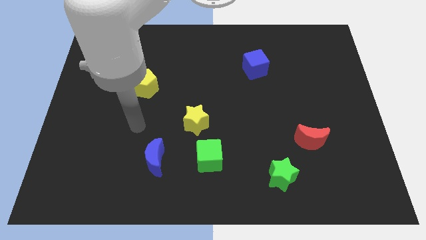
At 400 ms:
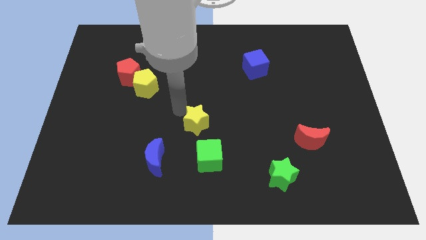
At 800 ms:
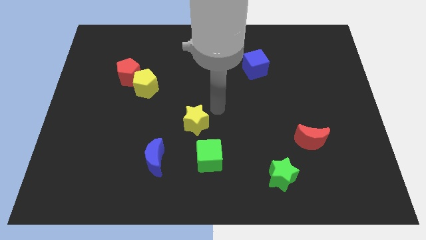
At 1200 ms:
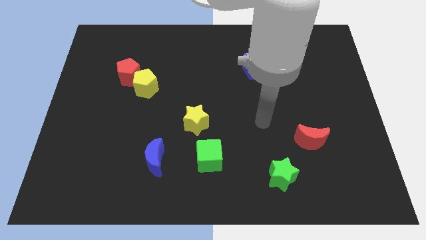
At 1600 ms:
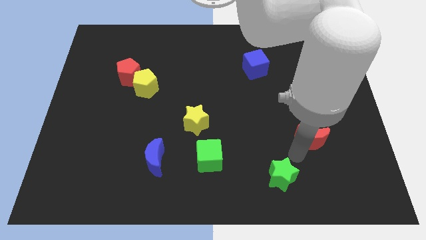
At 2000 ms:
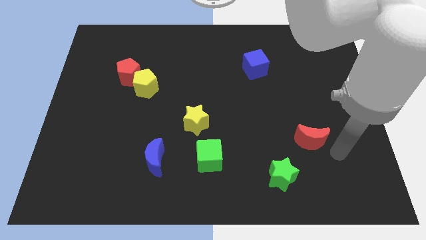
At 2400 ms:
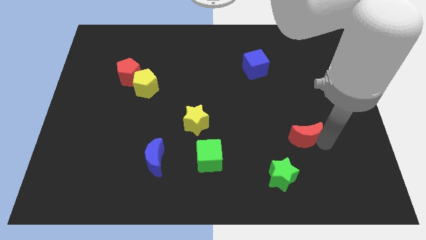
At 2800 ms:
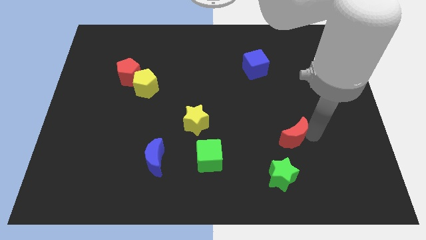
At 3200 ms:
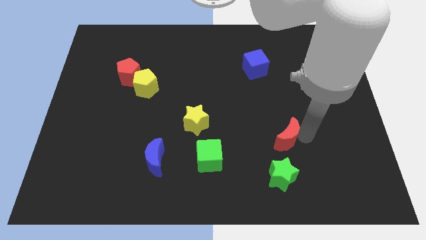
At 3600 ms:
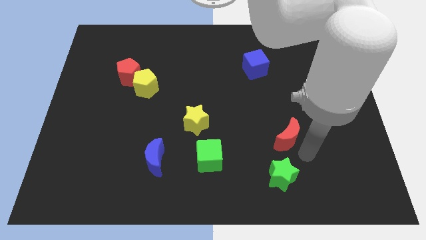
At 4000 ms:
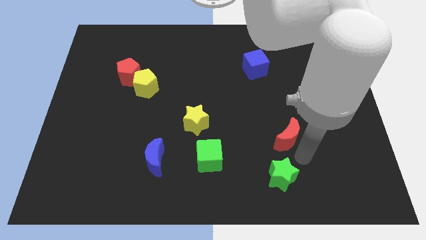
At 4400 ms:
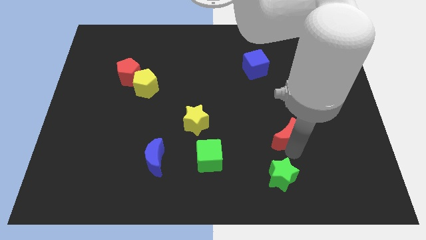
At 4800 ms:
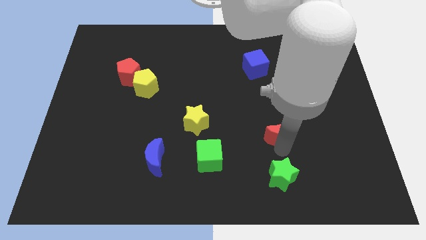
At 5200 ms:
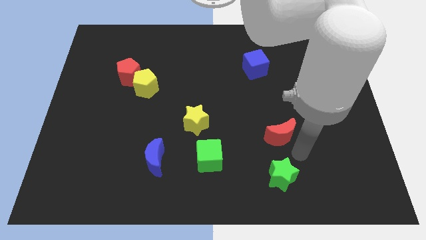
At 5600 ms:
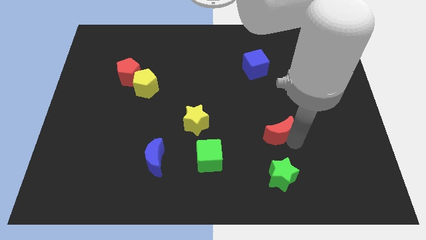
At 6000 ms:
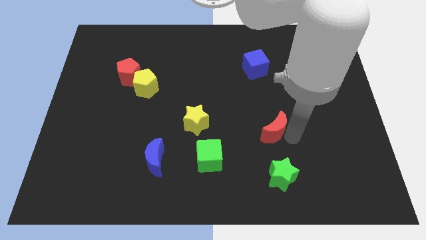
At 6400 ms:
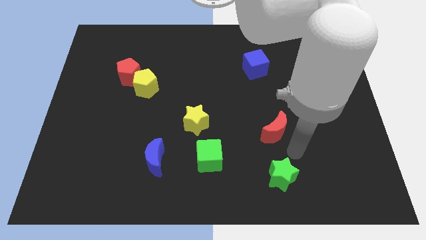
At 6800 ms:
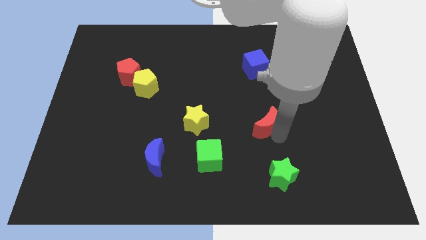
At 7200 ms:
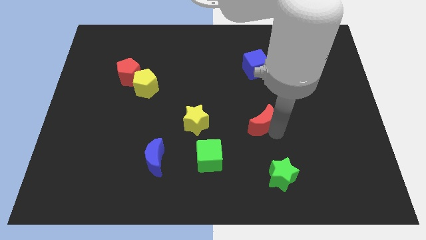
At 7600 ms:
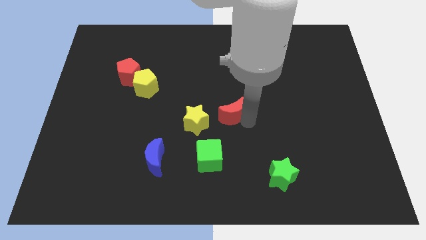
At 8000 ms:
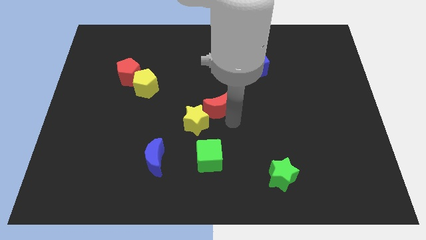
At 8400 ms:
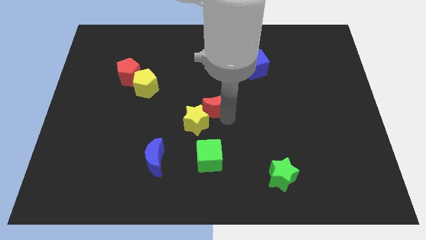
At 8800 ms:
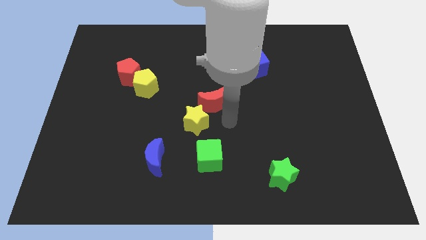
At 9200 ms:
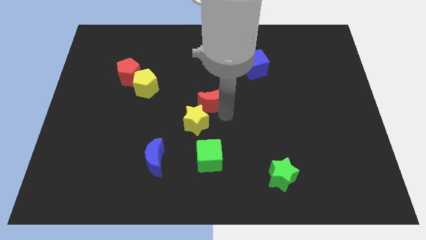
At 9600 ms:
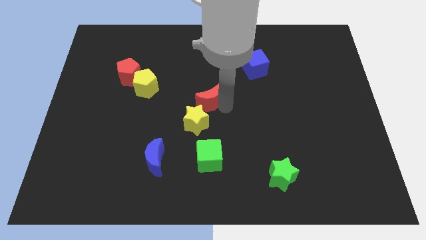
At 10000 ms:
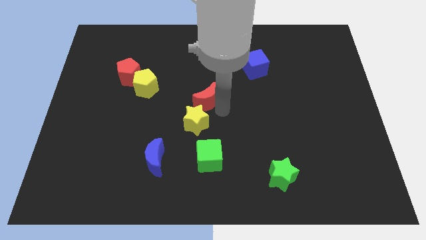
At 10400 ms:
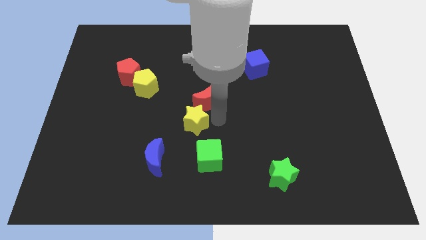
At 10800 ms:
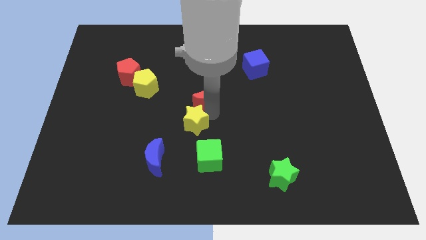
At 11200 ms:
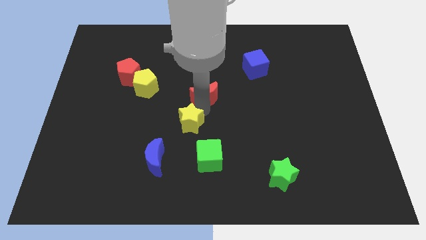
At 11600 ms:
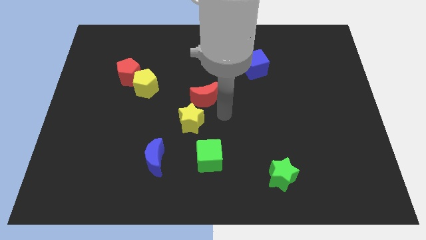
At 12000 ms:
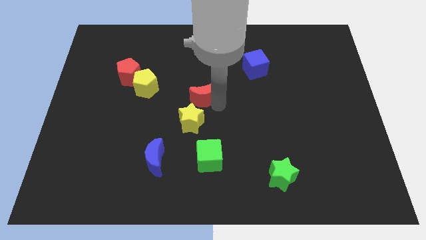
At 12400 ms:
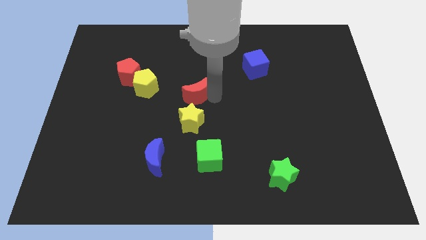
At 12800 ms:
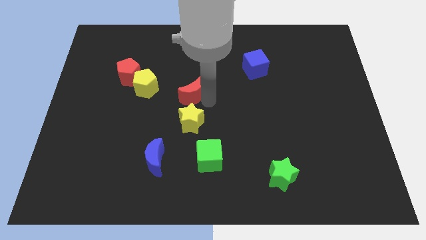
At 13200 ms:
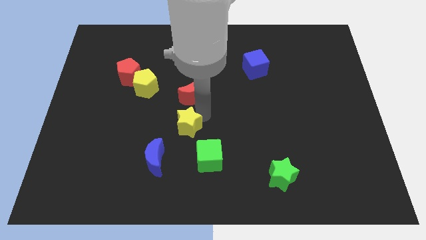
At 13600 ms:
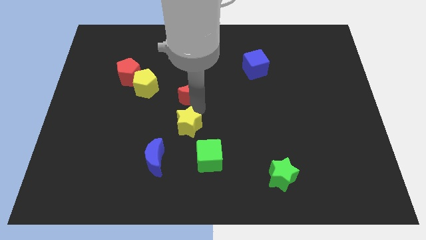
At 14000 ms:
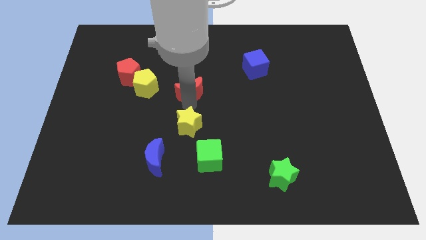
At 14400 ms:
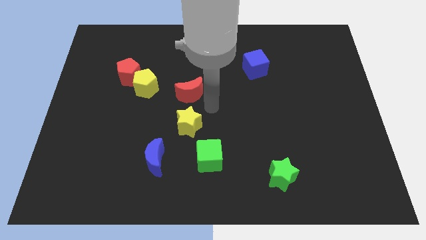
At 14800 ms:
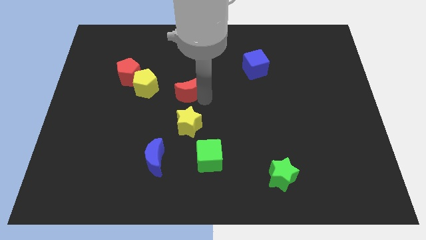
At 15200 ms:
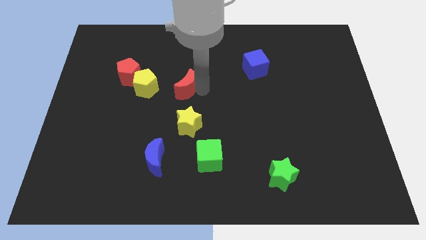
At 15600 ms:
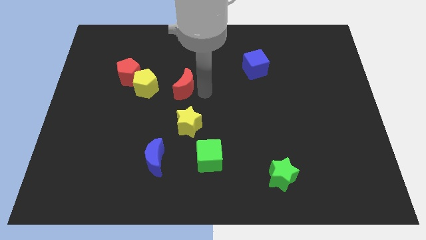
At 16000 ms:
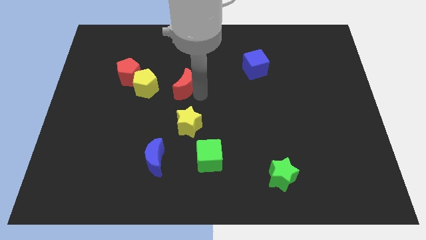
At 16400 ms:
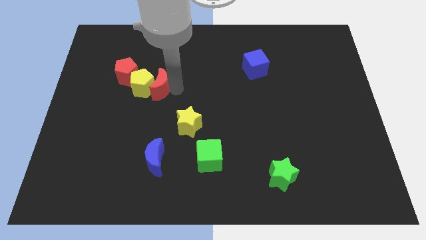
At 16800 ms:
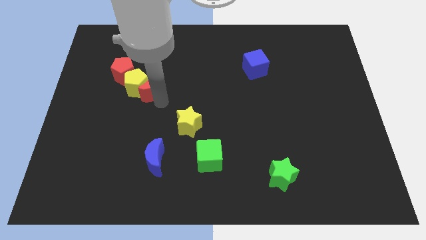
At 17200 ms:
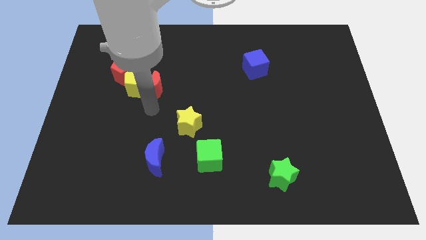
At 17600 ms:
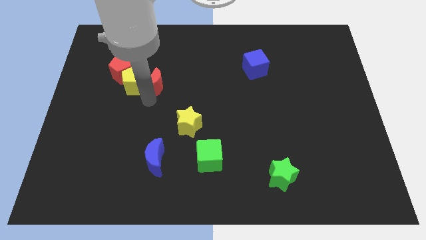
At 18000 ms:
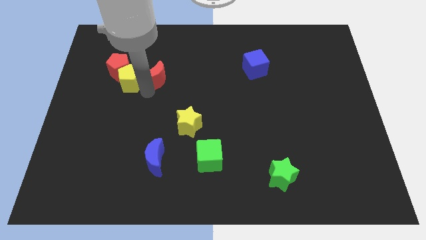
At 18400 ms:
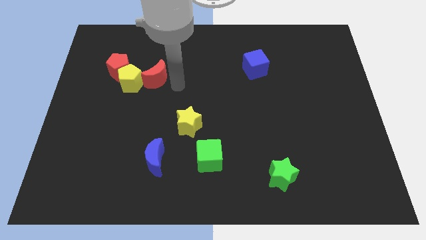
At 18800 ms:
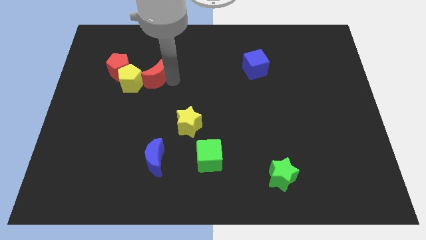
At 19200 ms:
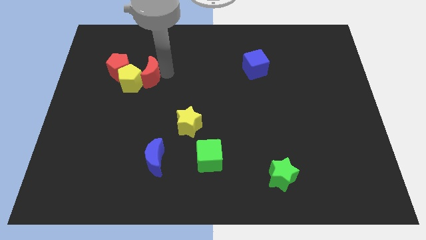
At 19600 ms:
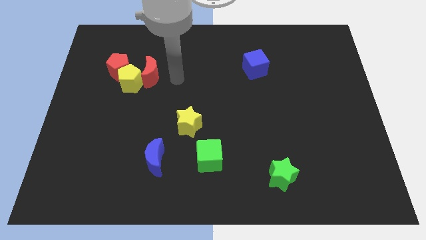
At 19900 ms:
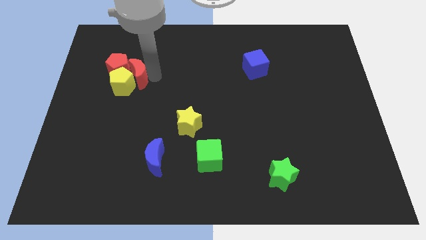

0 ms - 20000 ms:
put the red moon towards the red pentagon

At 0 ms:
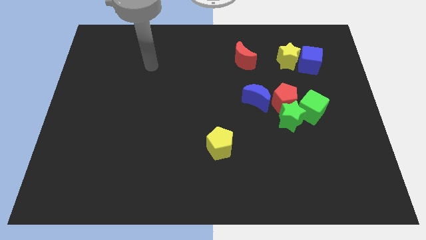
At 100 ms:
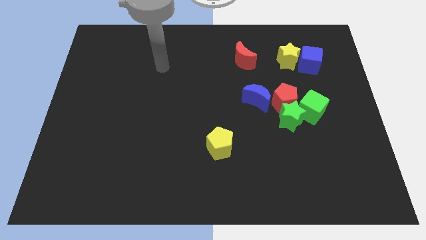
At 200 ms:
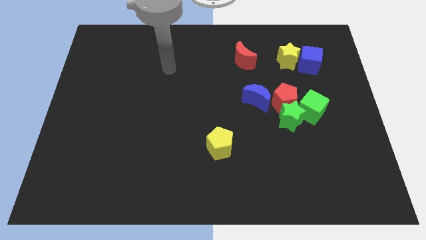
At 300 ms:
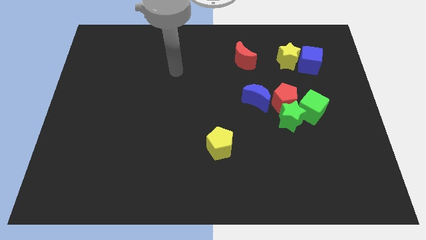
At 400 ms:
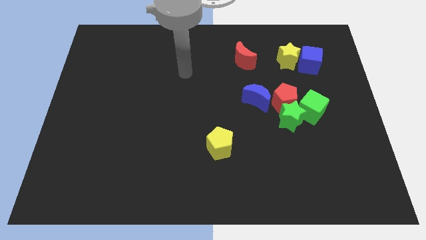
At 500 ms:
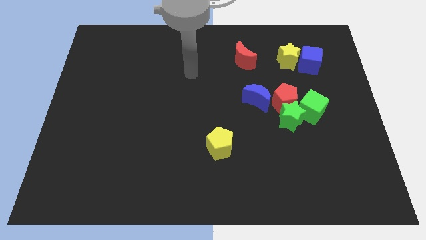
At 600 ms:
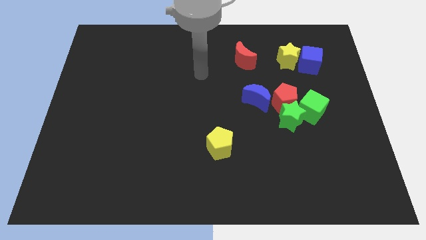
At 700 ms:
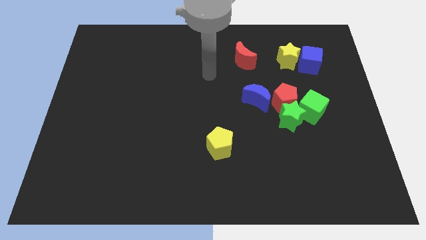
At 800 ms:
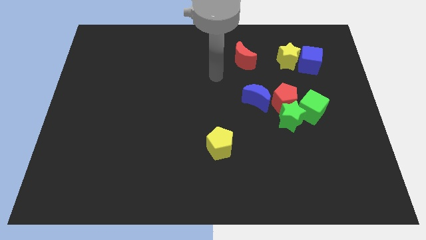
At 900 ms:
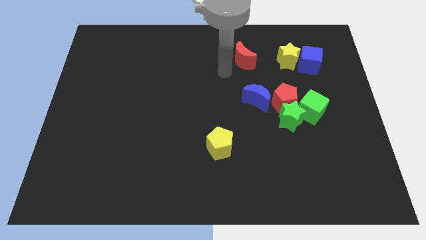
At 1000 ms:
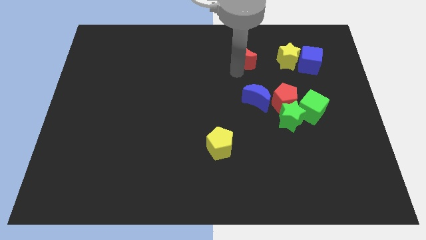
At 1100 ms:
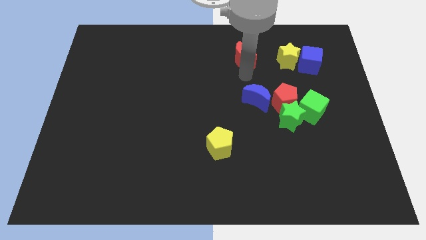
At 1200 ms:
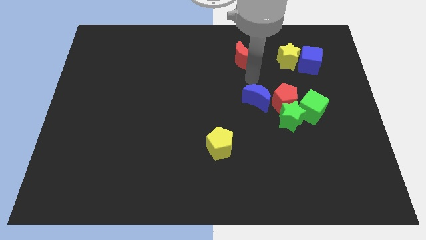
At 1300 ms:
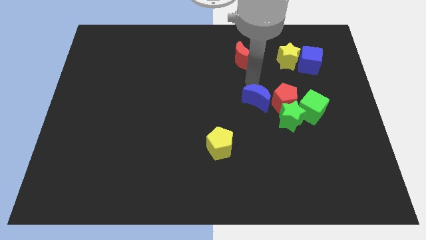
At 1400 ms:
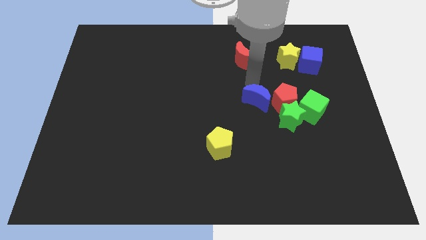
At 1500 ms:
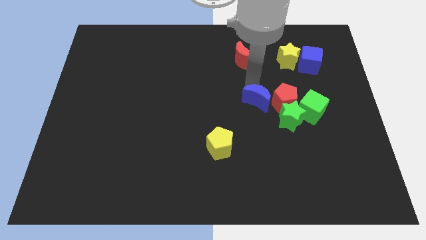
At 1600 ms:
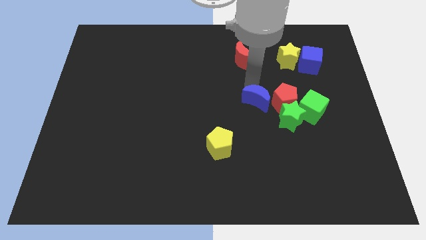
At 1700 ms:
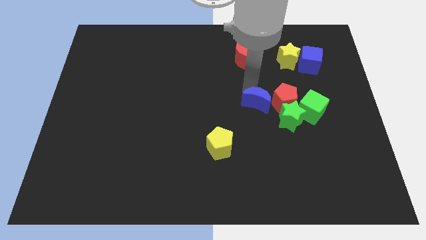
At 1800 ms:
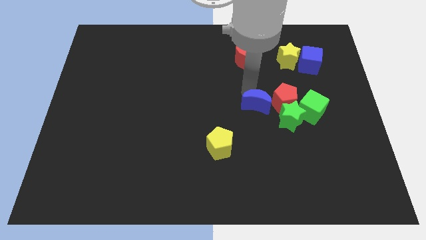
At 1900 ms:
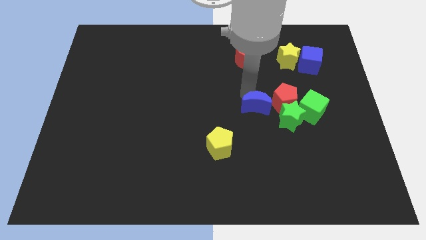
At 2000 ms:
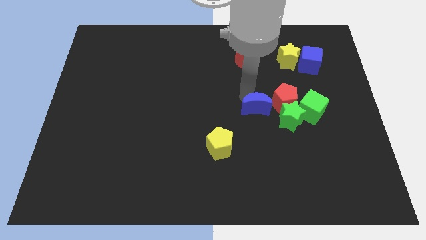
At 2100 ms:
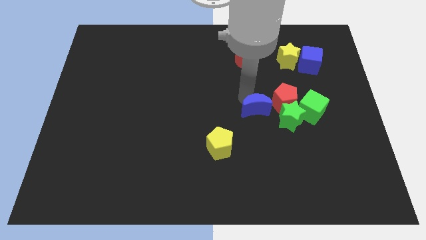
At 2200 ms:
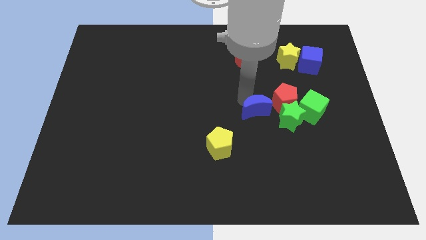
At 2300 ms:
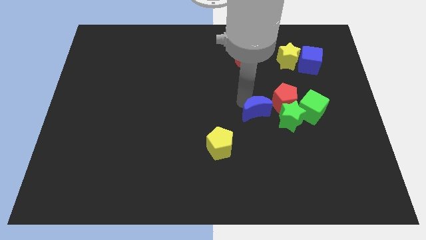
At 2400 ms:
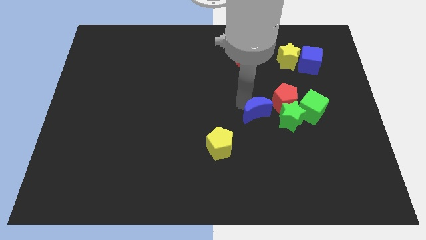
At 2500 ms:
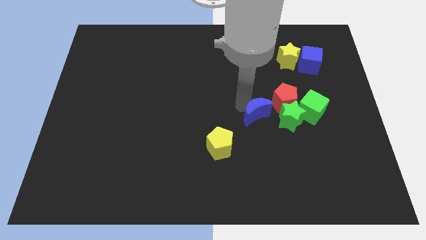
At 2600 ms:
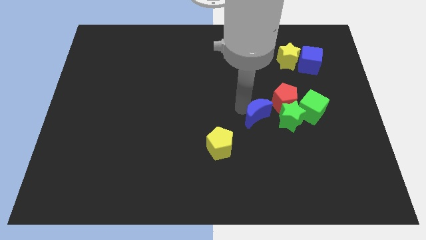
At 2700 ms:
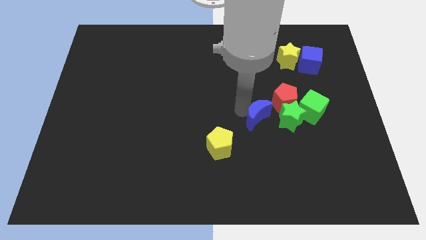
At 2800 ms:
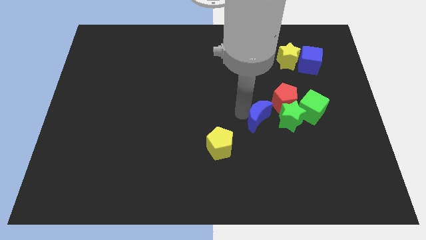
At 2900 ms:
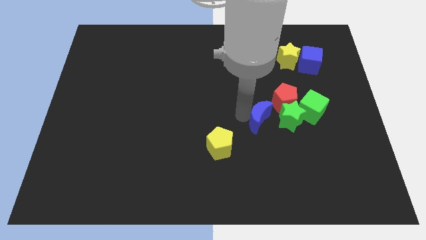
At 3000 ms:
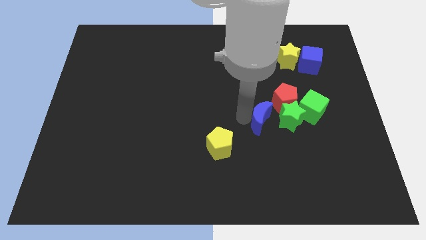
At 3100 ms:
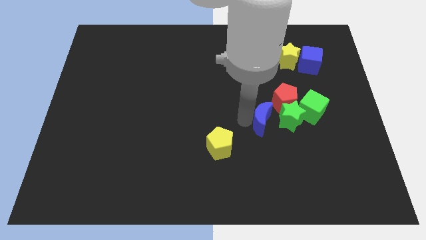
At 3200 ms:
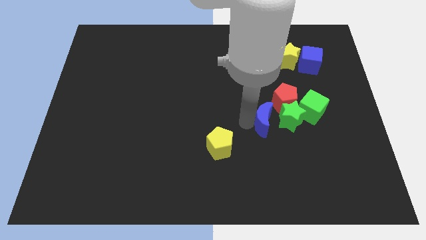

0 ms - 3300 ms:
put the blue moon to the green star
